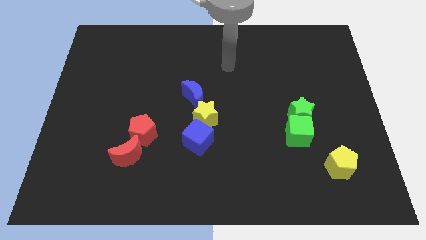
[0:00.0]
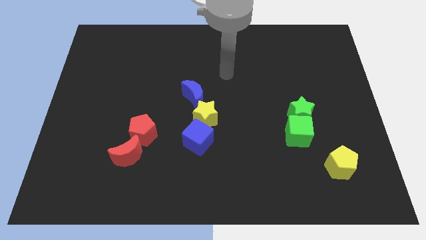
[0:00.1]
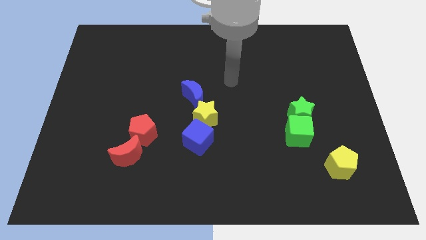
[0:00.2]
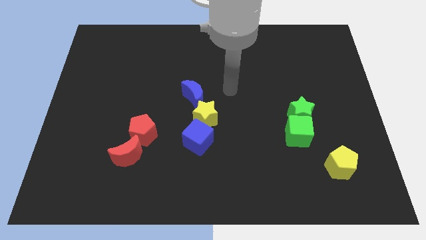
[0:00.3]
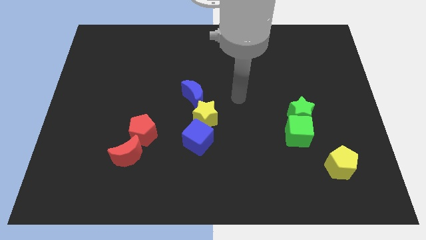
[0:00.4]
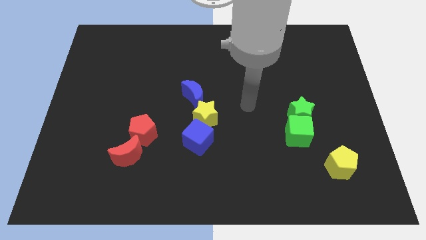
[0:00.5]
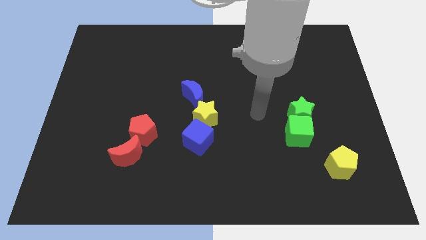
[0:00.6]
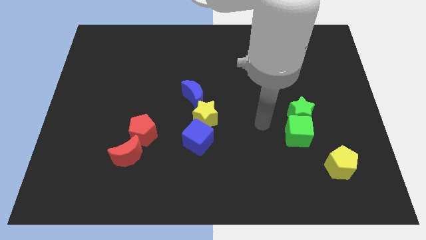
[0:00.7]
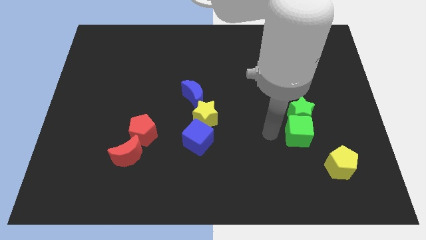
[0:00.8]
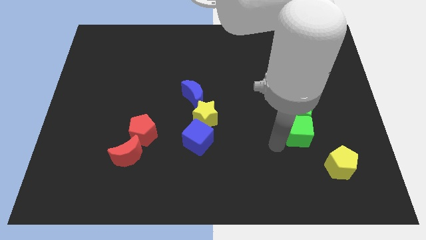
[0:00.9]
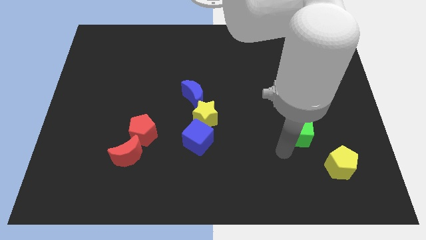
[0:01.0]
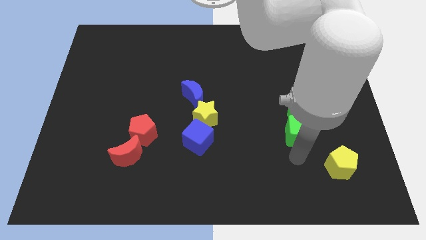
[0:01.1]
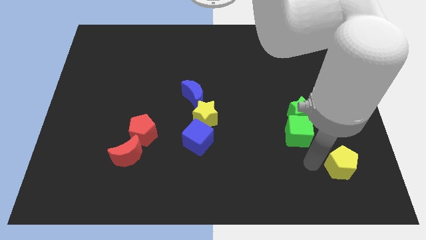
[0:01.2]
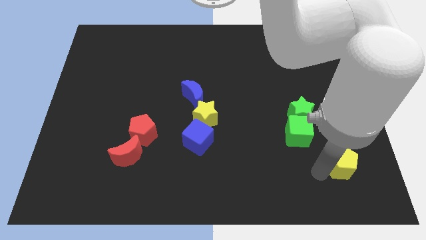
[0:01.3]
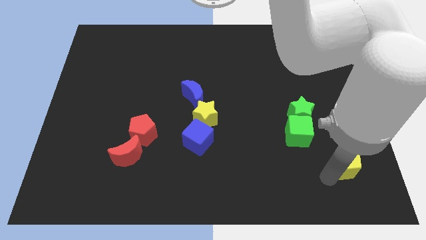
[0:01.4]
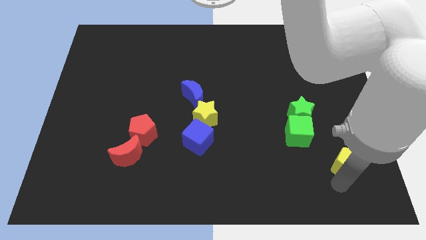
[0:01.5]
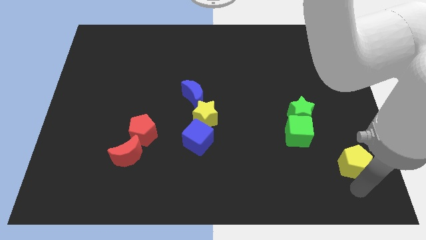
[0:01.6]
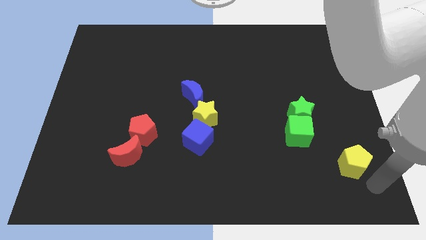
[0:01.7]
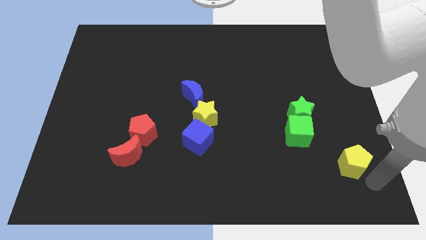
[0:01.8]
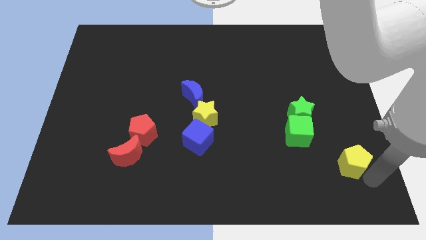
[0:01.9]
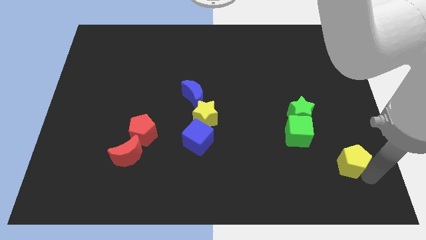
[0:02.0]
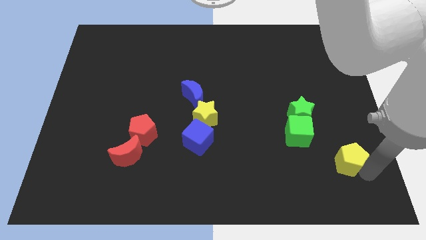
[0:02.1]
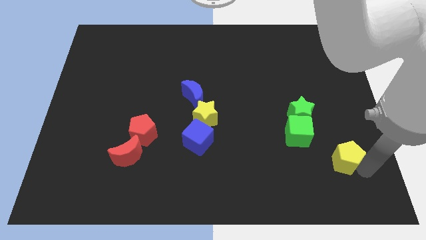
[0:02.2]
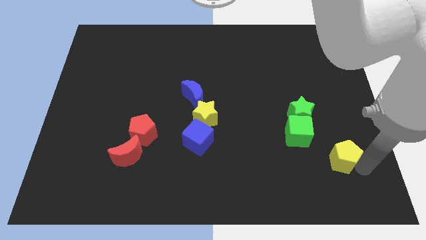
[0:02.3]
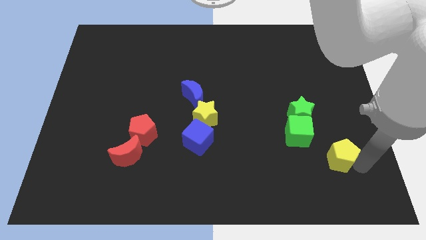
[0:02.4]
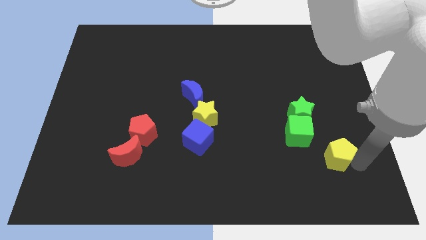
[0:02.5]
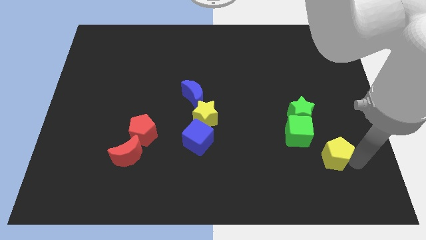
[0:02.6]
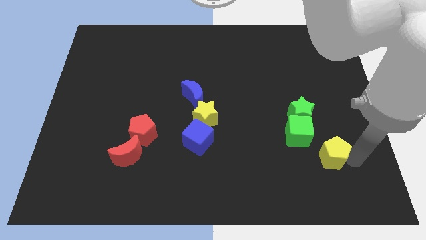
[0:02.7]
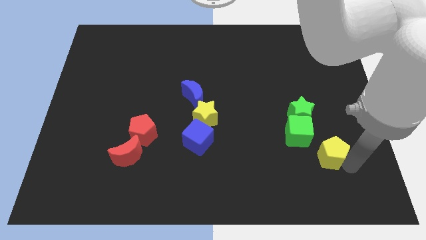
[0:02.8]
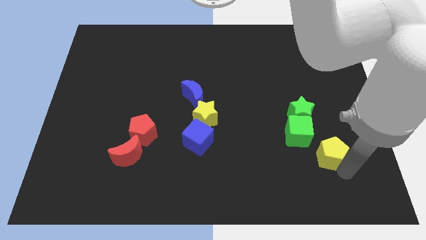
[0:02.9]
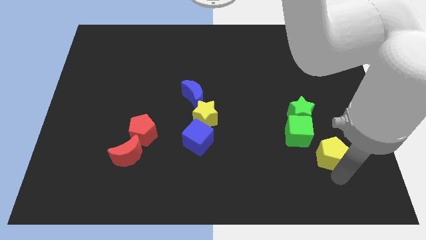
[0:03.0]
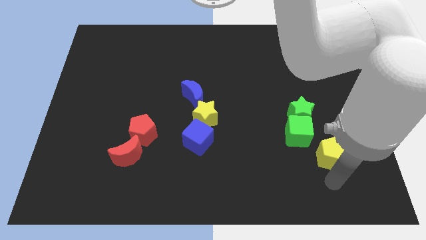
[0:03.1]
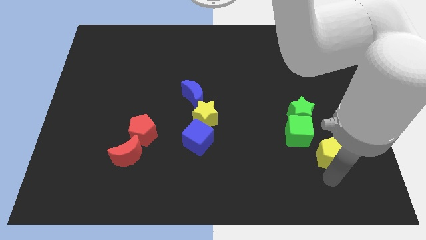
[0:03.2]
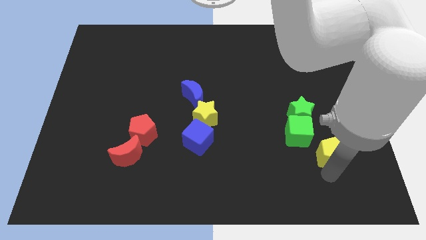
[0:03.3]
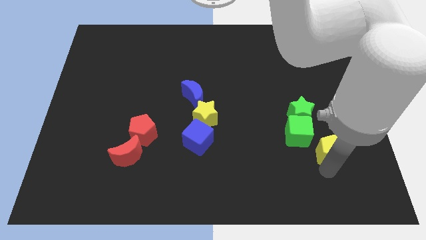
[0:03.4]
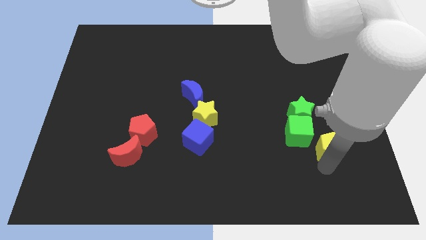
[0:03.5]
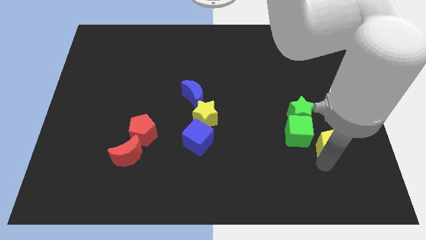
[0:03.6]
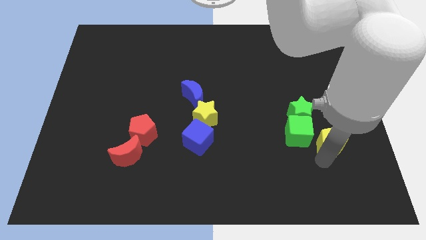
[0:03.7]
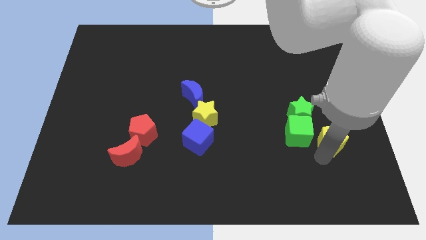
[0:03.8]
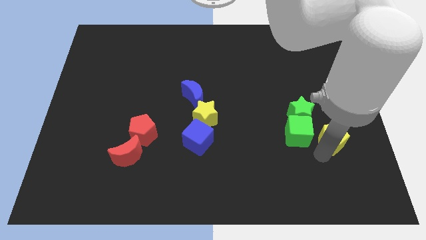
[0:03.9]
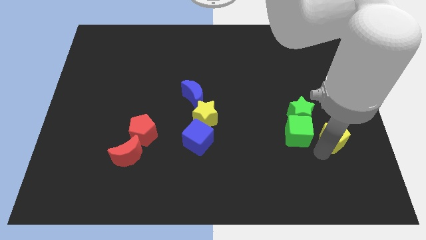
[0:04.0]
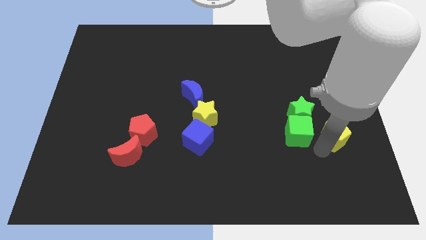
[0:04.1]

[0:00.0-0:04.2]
move the yellow pentagon a little bit upwards

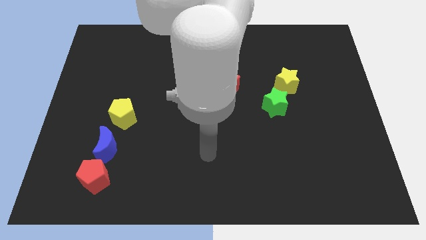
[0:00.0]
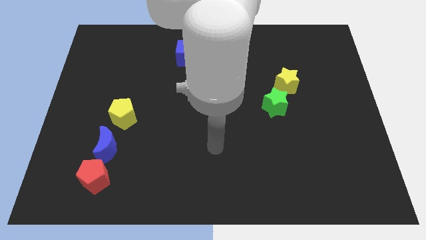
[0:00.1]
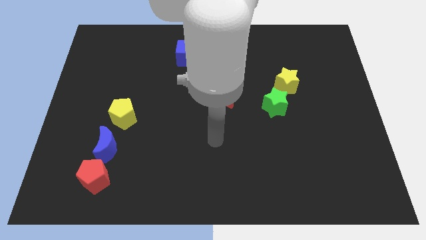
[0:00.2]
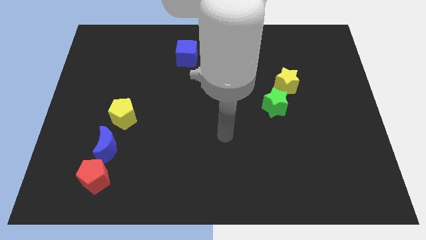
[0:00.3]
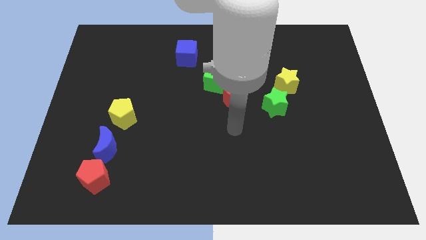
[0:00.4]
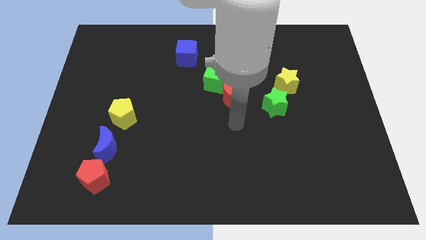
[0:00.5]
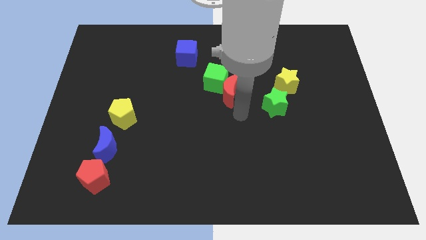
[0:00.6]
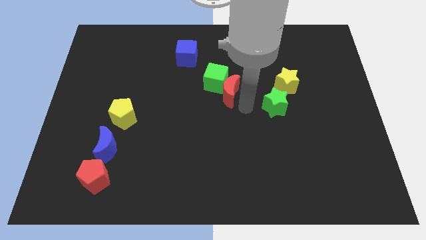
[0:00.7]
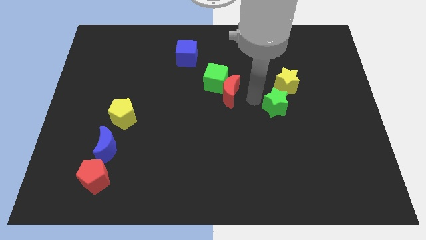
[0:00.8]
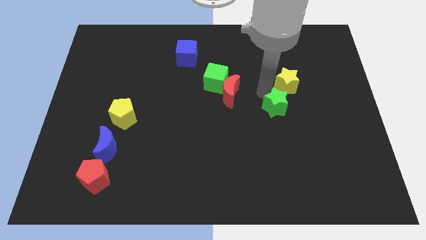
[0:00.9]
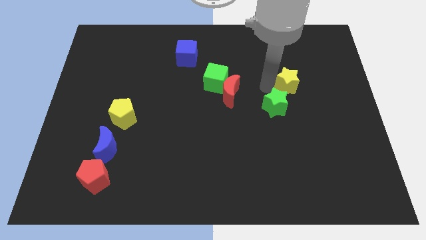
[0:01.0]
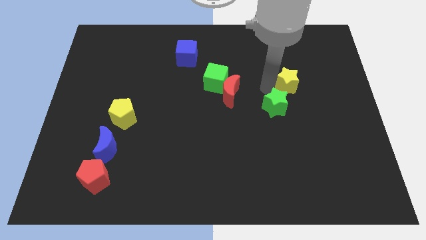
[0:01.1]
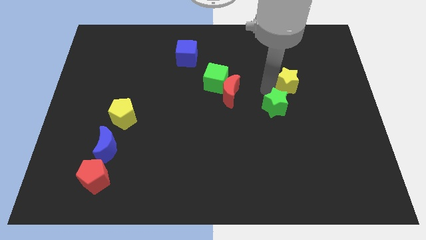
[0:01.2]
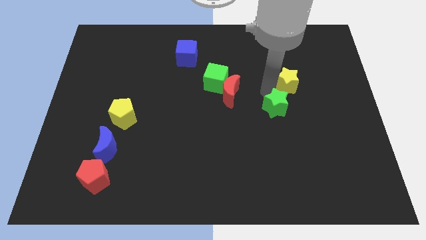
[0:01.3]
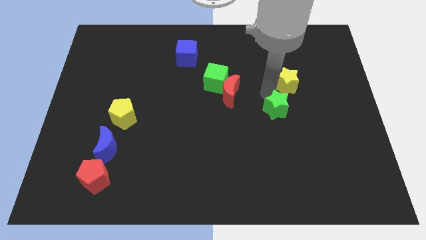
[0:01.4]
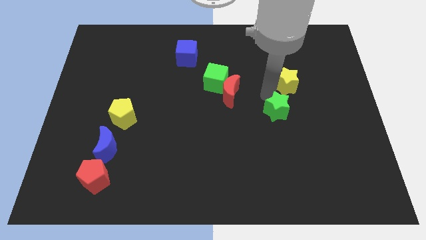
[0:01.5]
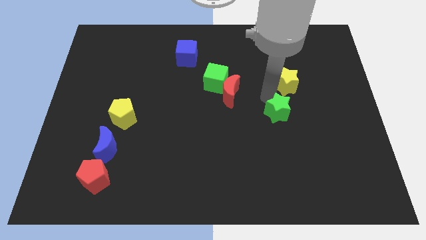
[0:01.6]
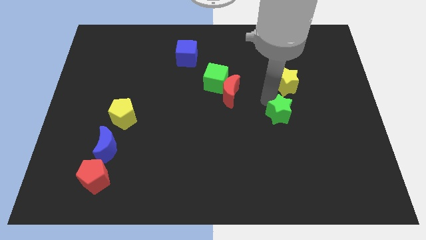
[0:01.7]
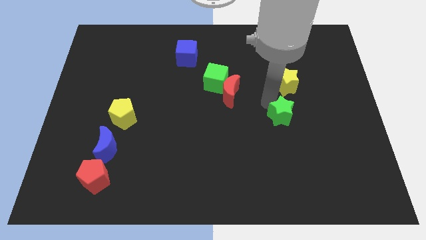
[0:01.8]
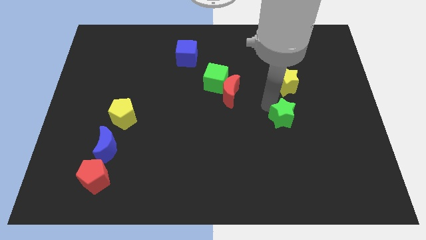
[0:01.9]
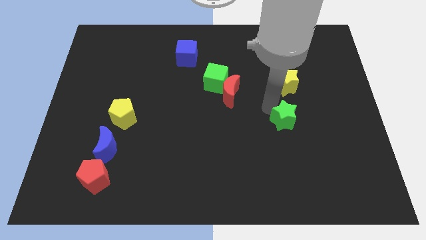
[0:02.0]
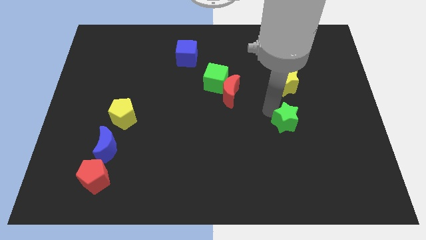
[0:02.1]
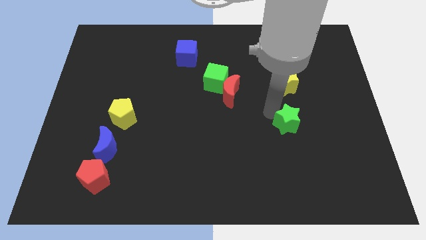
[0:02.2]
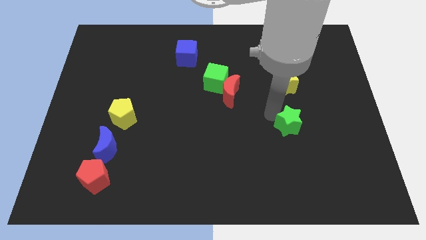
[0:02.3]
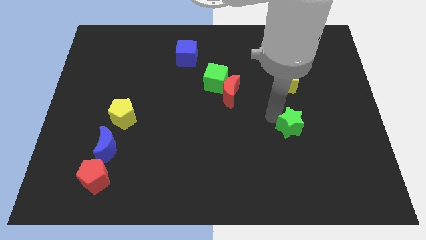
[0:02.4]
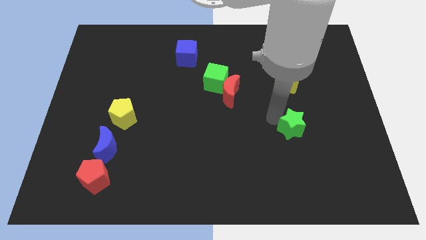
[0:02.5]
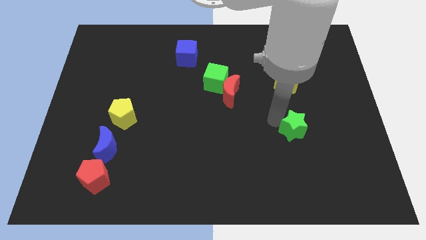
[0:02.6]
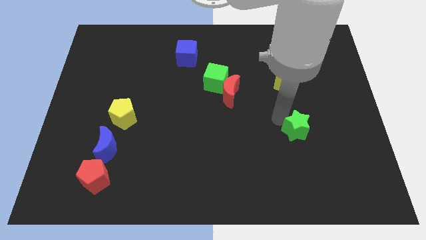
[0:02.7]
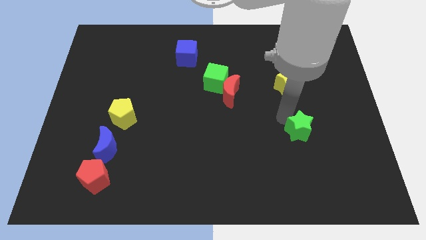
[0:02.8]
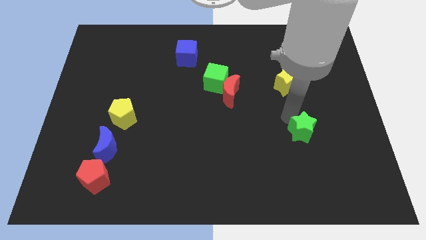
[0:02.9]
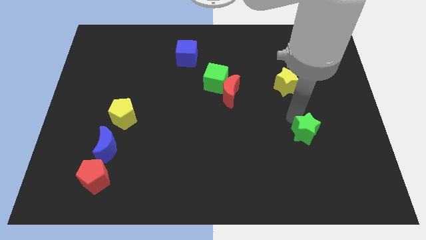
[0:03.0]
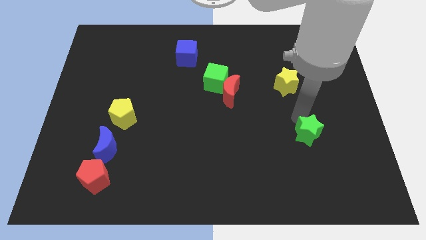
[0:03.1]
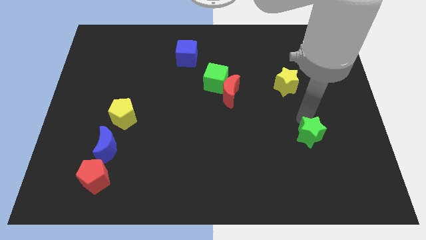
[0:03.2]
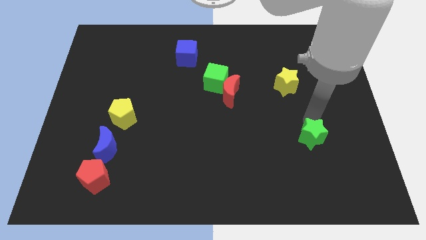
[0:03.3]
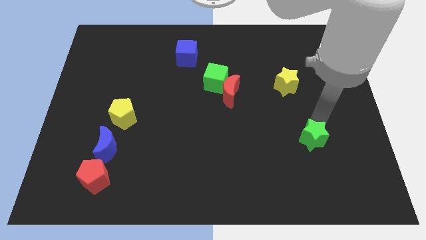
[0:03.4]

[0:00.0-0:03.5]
move the green star downwards a little bit

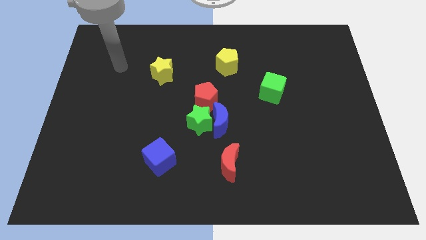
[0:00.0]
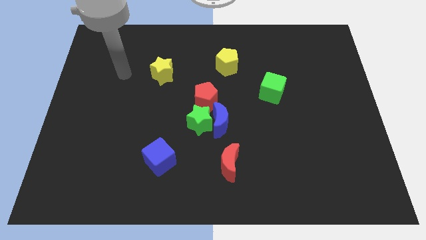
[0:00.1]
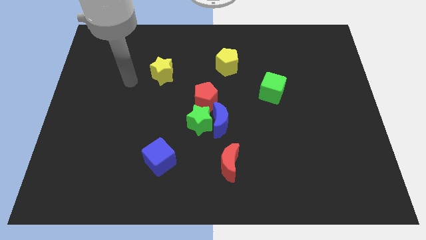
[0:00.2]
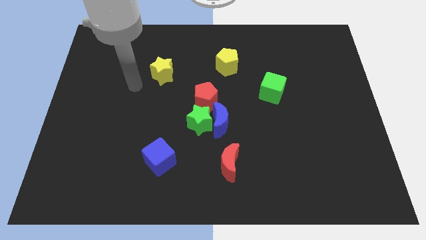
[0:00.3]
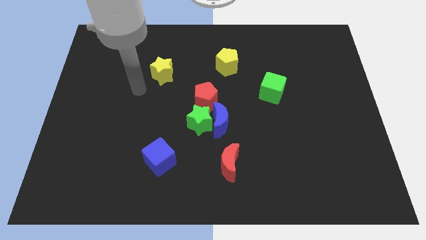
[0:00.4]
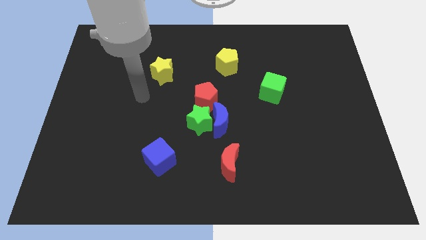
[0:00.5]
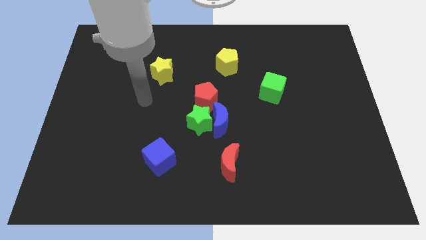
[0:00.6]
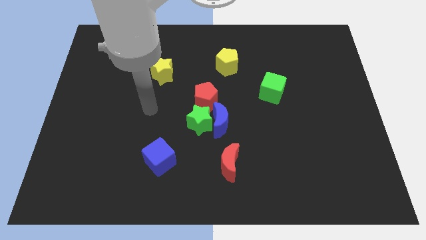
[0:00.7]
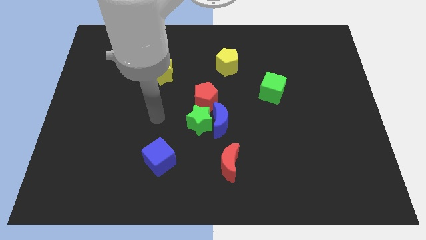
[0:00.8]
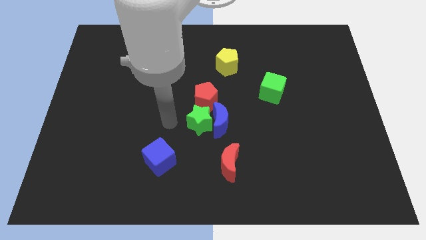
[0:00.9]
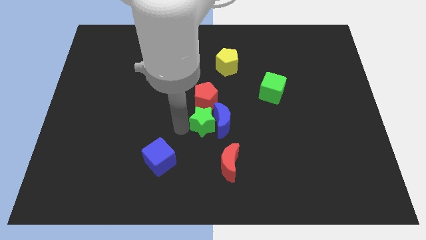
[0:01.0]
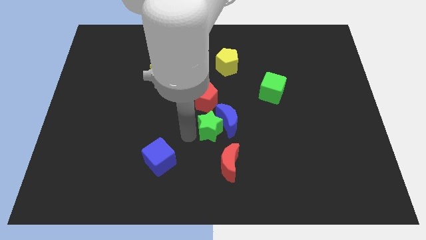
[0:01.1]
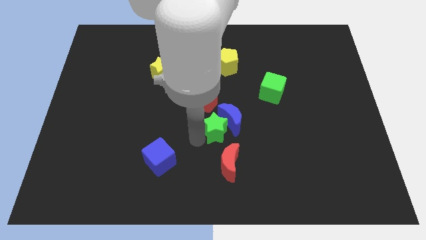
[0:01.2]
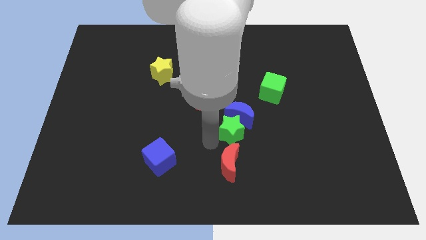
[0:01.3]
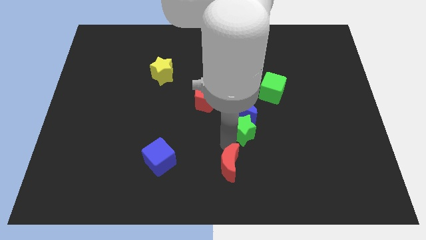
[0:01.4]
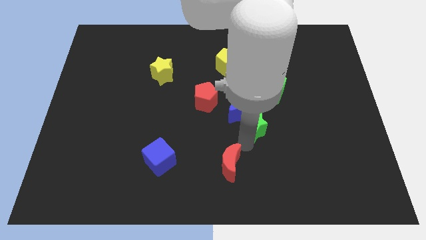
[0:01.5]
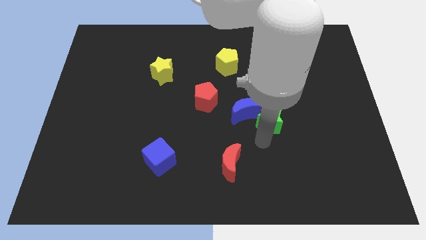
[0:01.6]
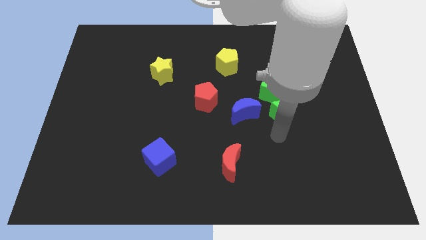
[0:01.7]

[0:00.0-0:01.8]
push the green star a bit upwards and to the right
